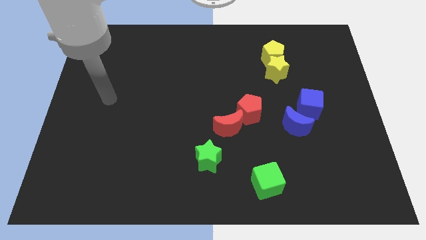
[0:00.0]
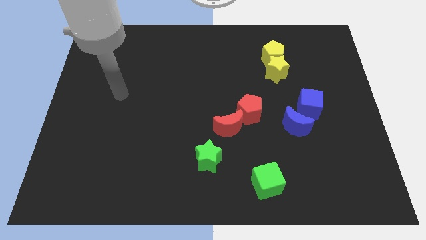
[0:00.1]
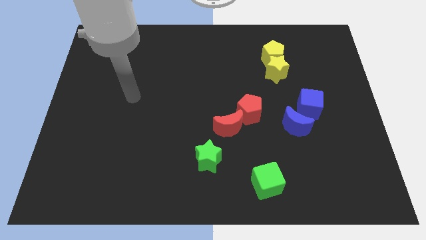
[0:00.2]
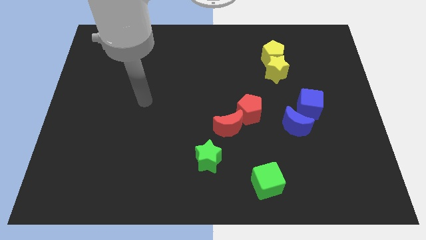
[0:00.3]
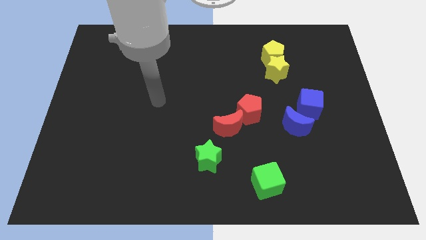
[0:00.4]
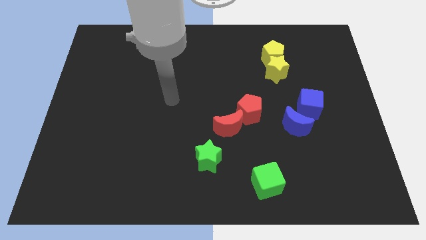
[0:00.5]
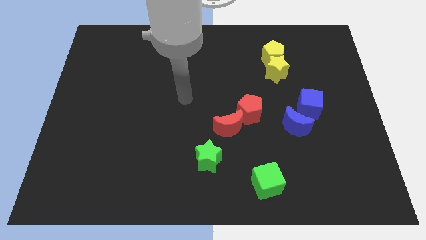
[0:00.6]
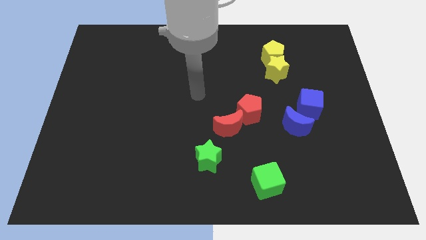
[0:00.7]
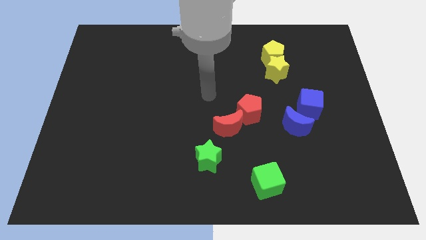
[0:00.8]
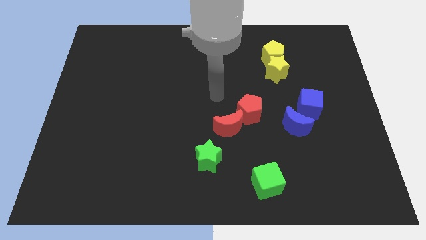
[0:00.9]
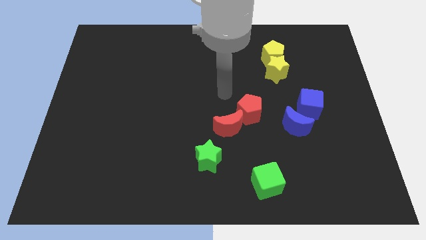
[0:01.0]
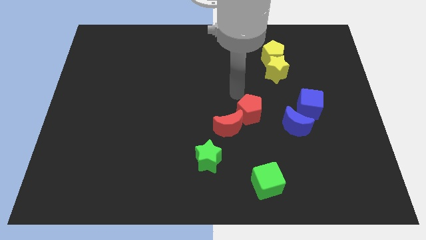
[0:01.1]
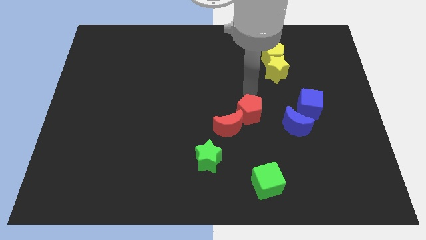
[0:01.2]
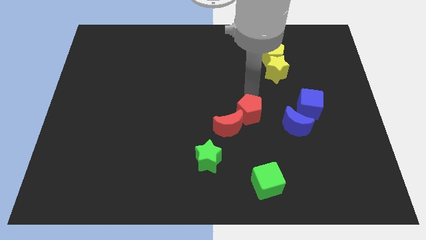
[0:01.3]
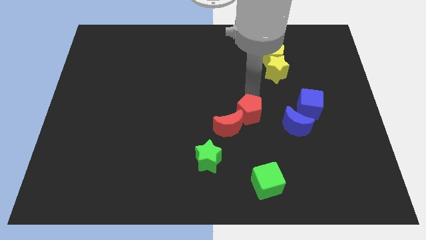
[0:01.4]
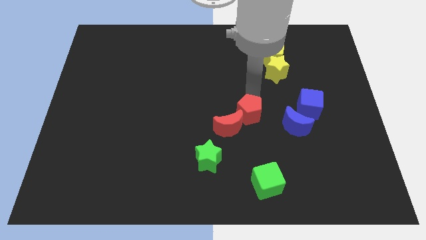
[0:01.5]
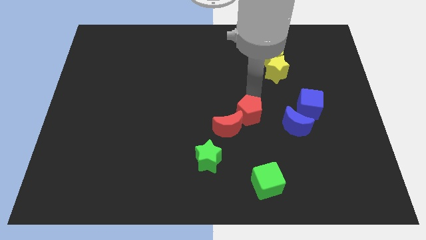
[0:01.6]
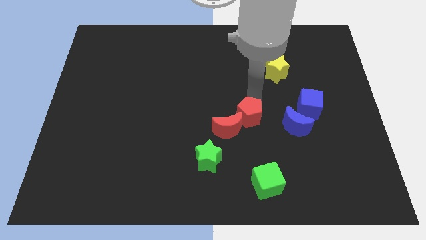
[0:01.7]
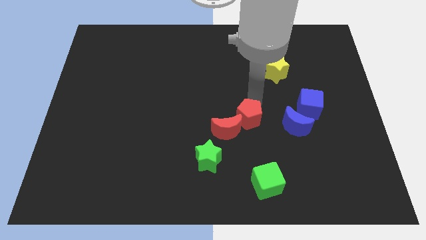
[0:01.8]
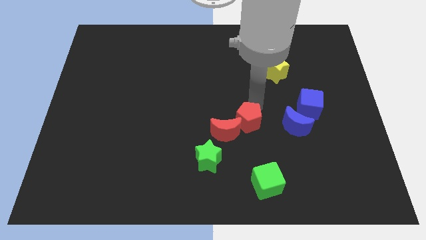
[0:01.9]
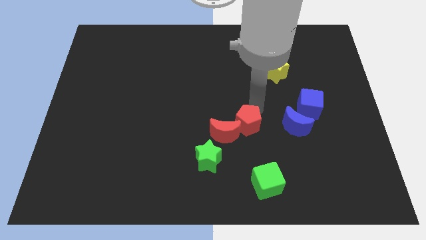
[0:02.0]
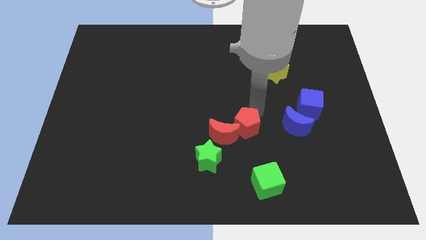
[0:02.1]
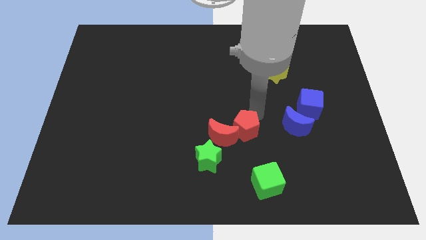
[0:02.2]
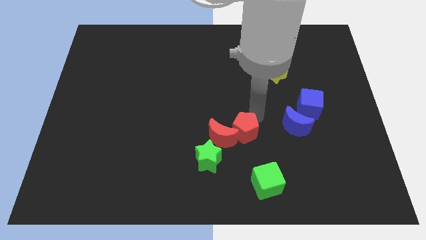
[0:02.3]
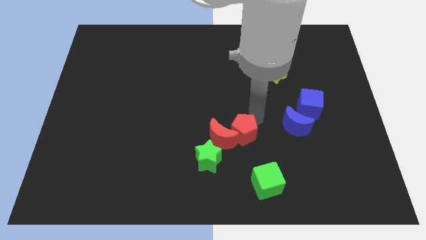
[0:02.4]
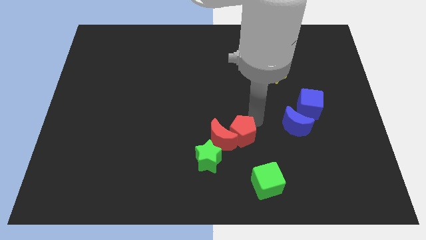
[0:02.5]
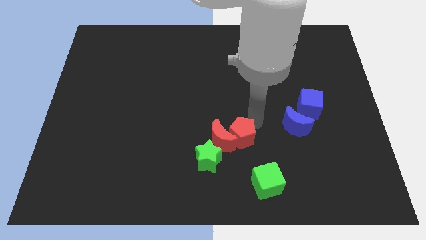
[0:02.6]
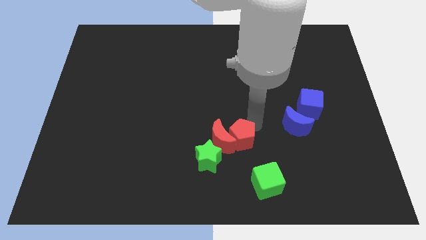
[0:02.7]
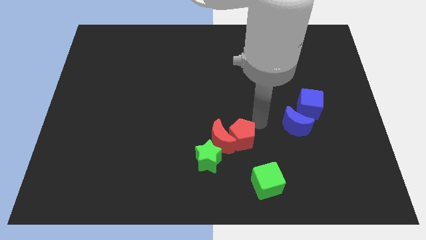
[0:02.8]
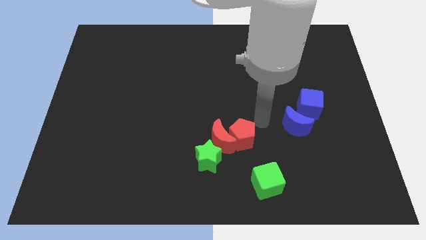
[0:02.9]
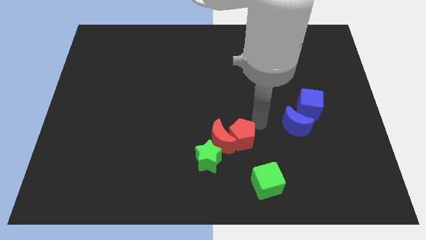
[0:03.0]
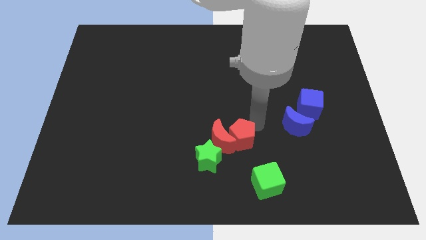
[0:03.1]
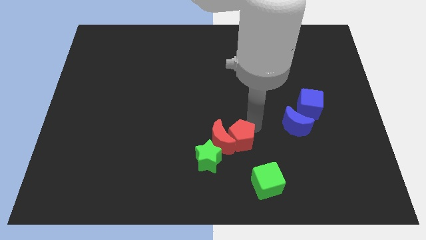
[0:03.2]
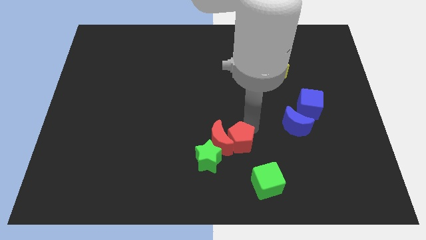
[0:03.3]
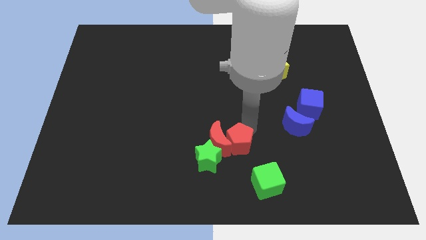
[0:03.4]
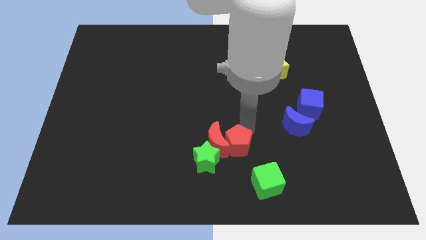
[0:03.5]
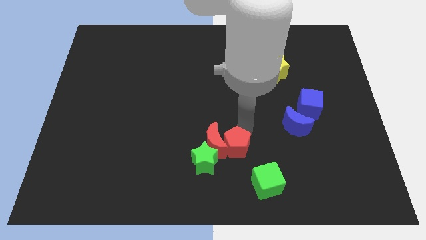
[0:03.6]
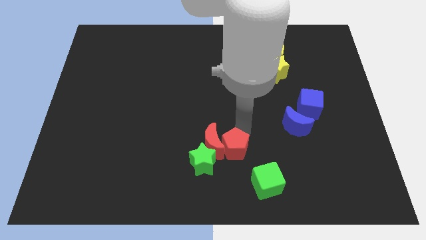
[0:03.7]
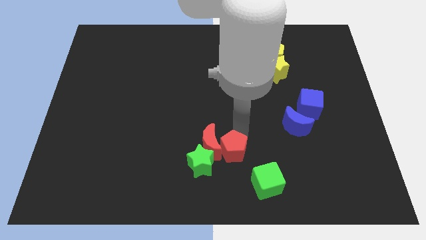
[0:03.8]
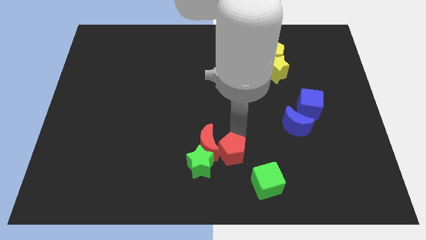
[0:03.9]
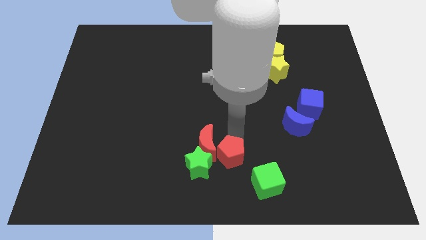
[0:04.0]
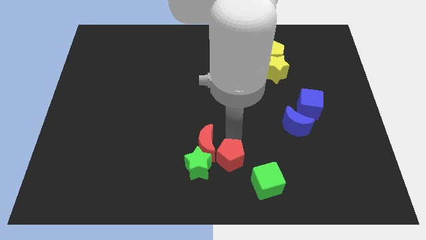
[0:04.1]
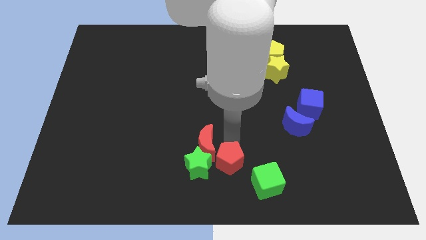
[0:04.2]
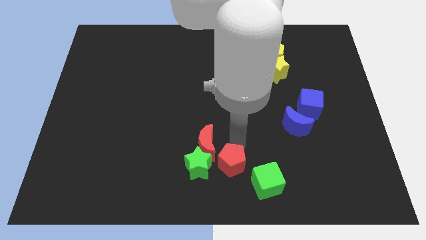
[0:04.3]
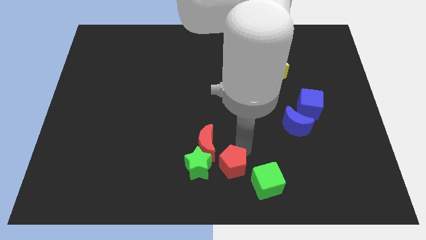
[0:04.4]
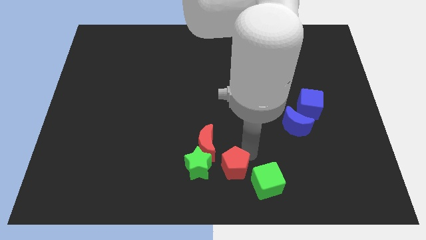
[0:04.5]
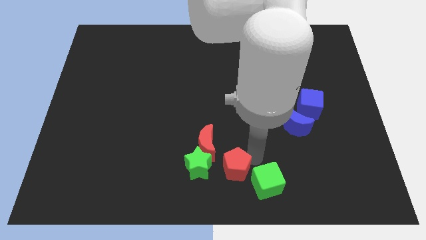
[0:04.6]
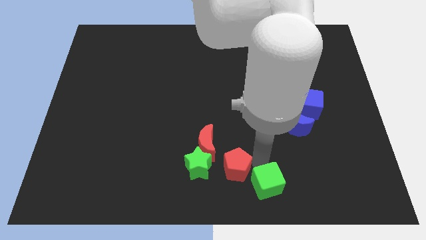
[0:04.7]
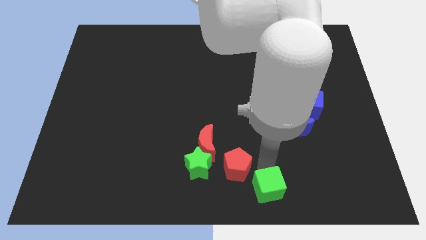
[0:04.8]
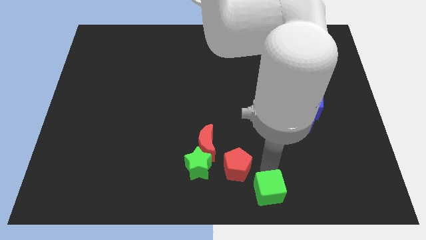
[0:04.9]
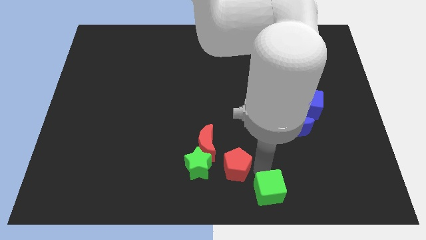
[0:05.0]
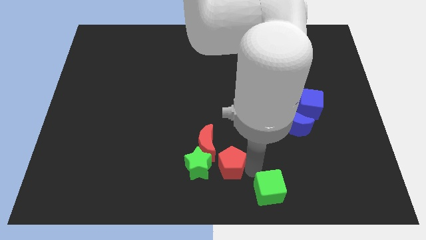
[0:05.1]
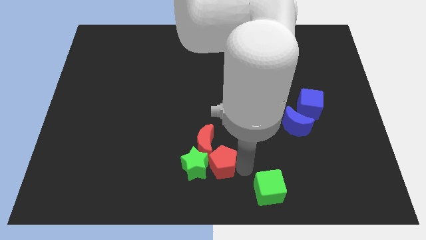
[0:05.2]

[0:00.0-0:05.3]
push the red pentagon close to the green star

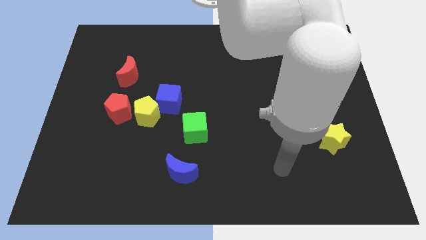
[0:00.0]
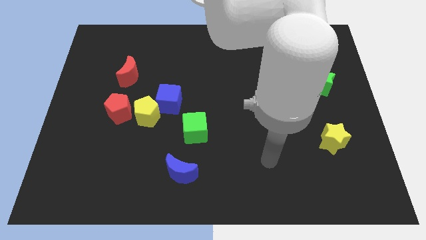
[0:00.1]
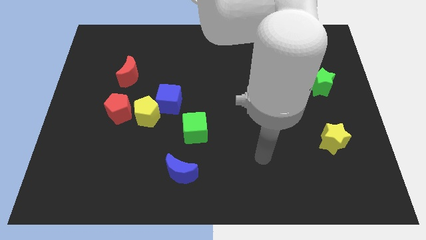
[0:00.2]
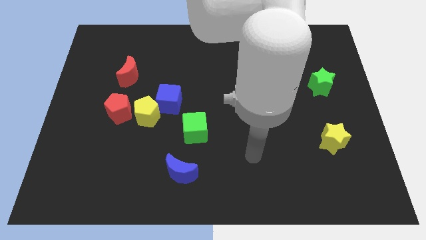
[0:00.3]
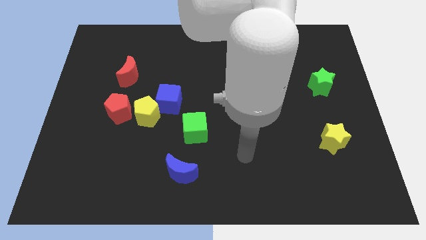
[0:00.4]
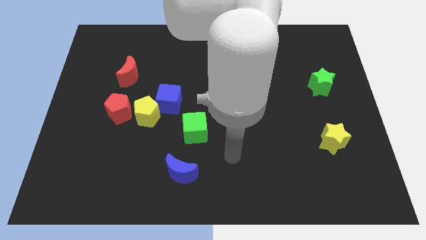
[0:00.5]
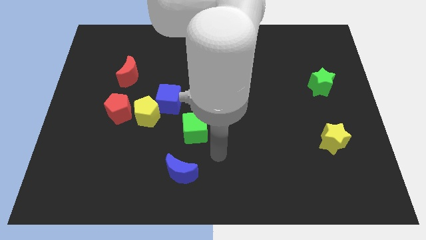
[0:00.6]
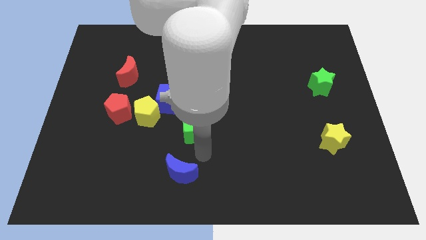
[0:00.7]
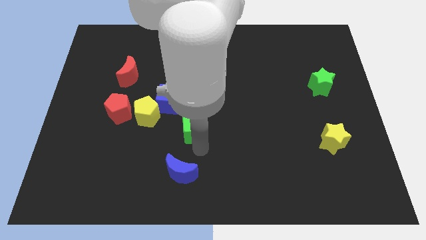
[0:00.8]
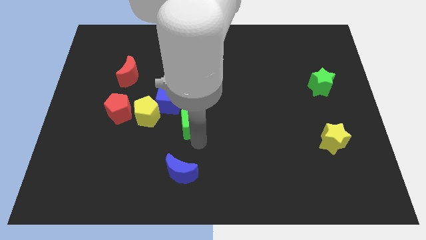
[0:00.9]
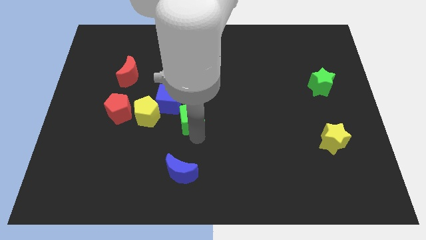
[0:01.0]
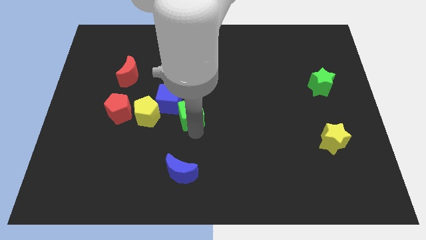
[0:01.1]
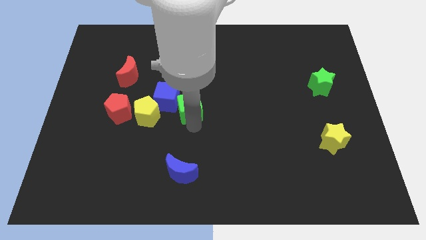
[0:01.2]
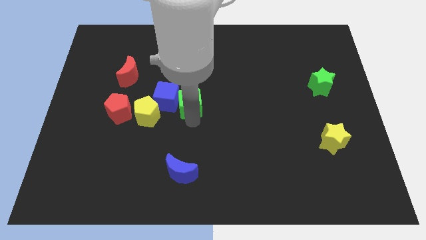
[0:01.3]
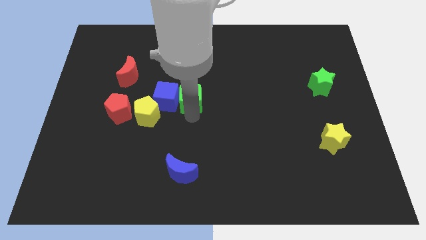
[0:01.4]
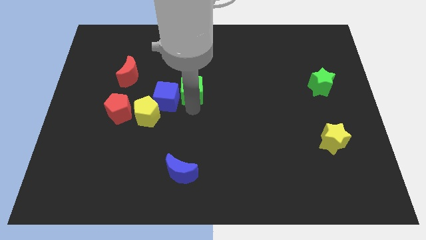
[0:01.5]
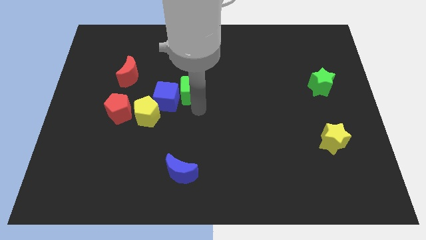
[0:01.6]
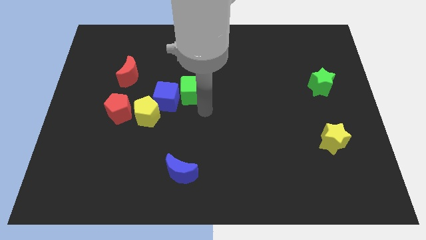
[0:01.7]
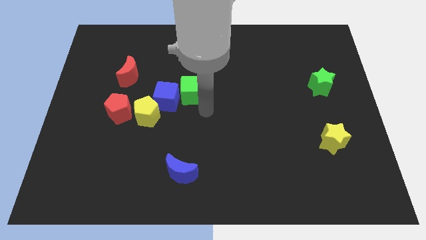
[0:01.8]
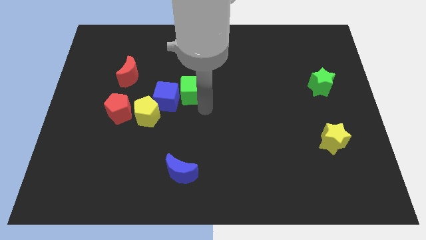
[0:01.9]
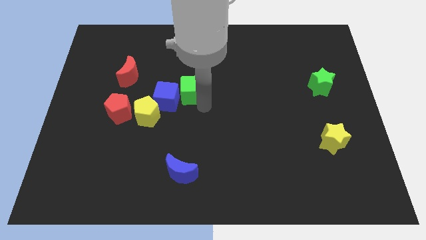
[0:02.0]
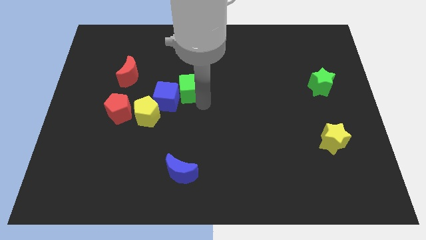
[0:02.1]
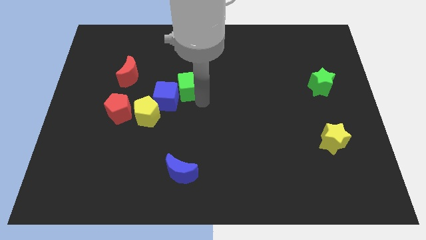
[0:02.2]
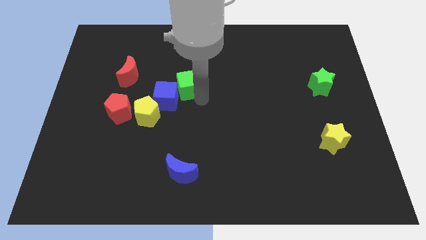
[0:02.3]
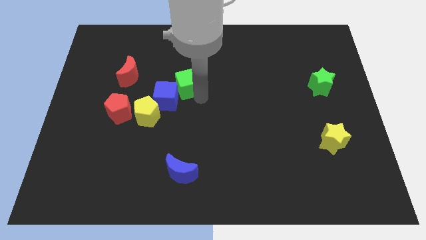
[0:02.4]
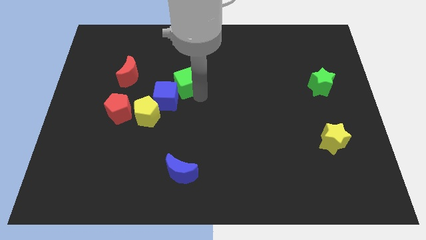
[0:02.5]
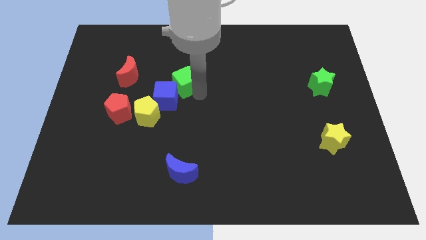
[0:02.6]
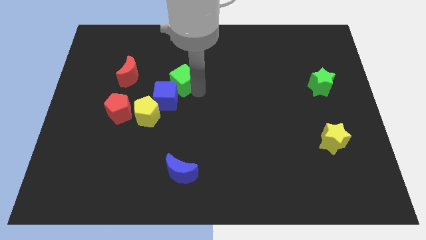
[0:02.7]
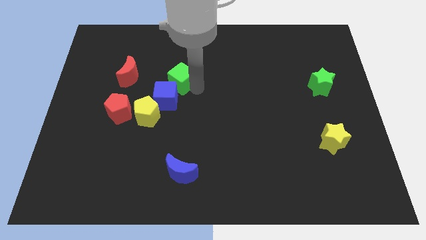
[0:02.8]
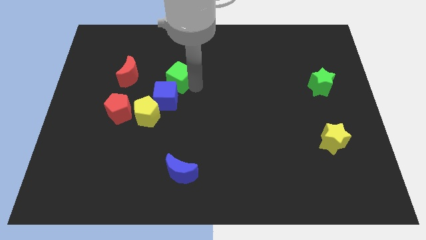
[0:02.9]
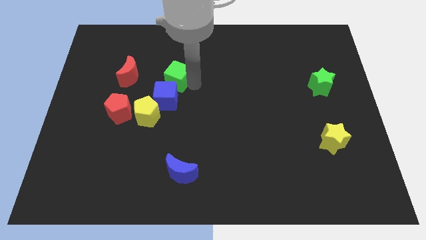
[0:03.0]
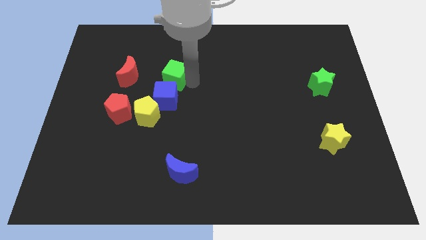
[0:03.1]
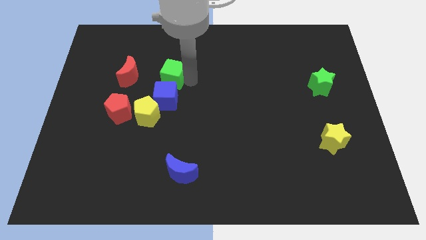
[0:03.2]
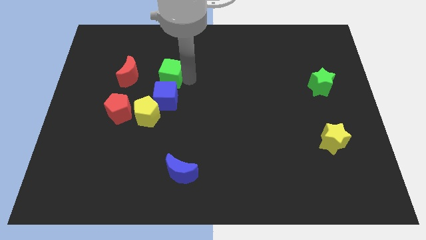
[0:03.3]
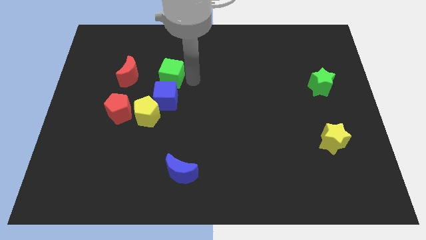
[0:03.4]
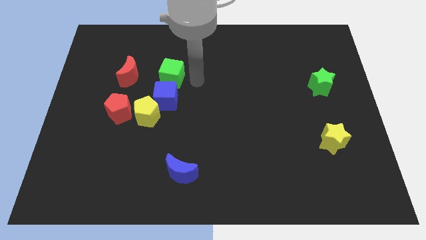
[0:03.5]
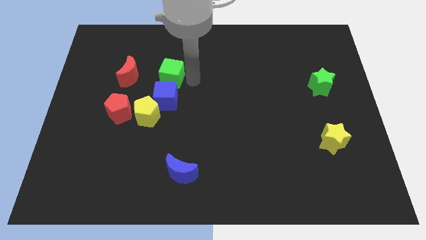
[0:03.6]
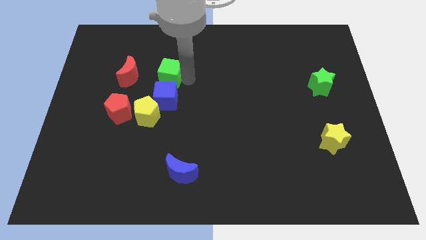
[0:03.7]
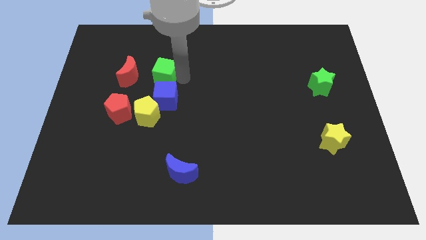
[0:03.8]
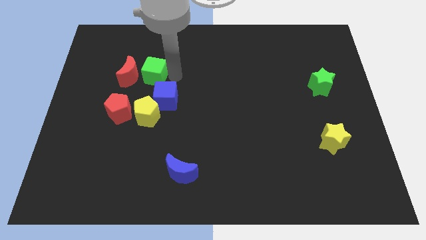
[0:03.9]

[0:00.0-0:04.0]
slide the green cube to the red moon
